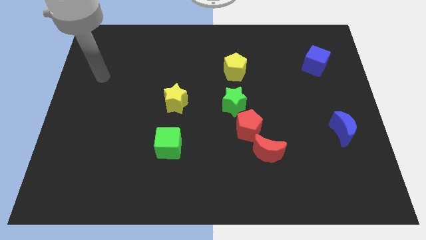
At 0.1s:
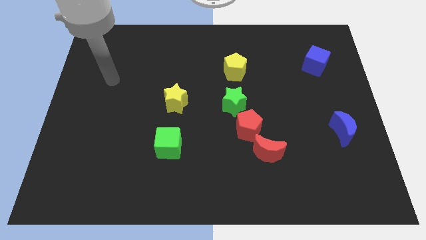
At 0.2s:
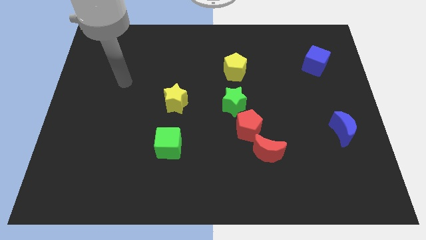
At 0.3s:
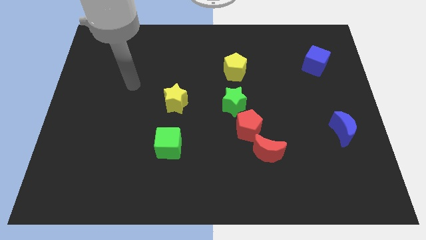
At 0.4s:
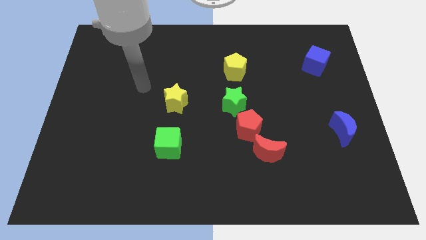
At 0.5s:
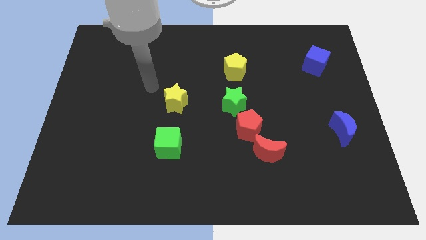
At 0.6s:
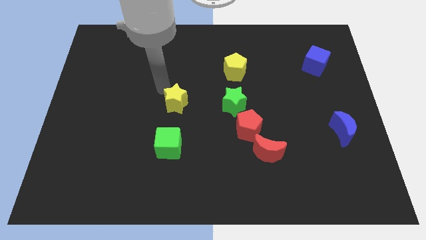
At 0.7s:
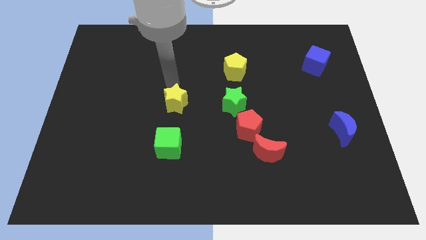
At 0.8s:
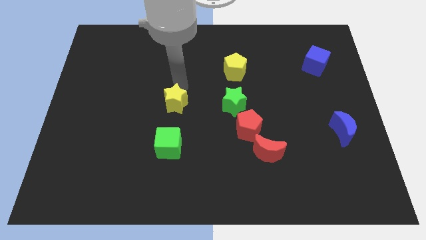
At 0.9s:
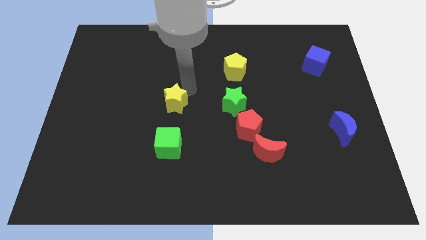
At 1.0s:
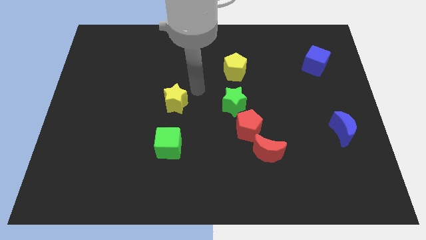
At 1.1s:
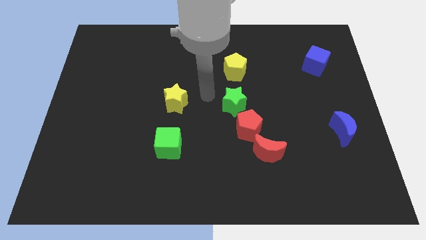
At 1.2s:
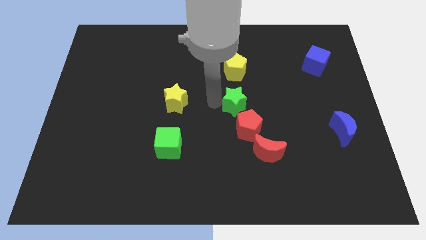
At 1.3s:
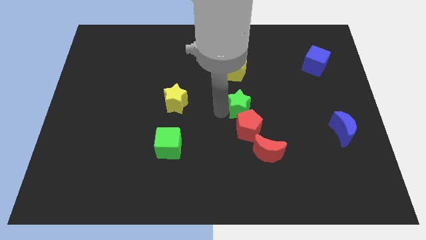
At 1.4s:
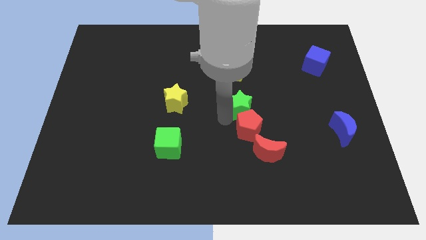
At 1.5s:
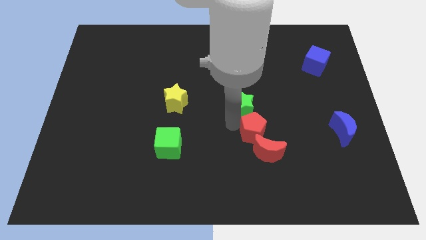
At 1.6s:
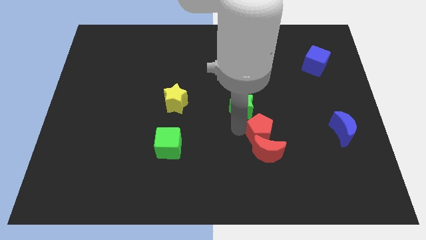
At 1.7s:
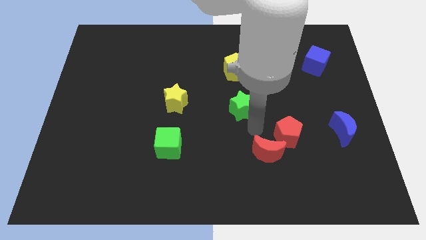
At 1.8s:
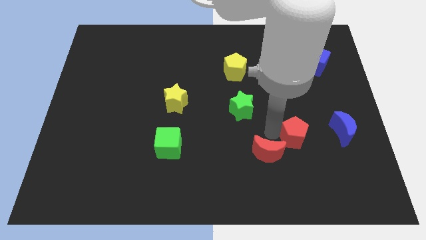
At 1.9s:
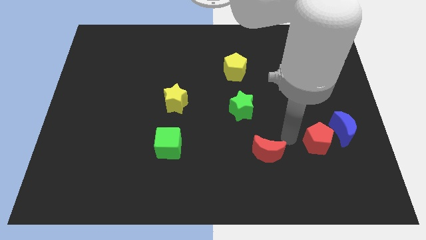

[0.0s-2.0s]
separate the red moon from the red pentagon

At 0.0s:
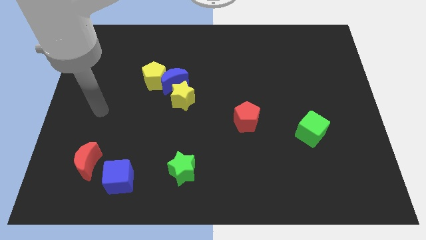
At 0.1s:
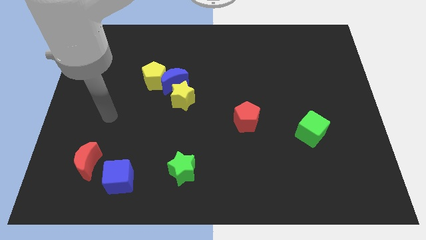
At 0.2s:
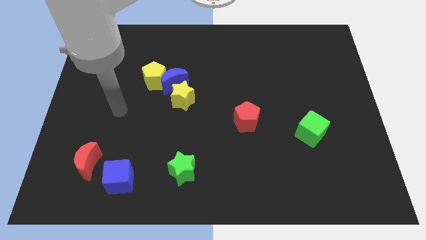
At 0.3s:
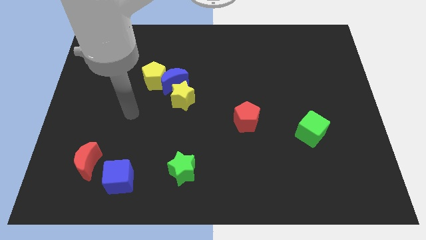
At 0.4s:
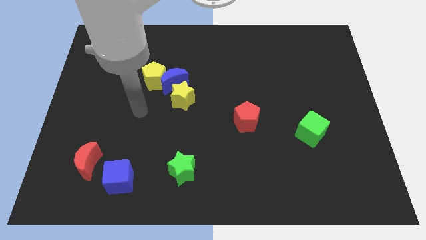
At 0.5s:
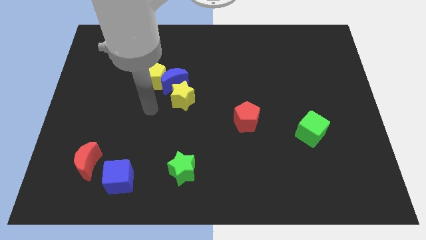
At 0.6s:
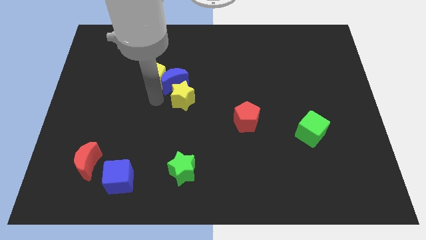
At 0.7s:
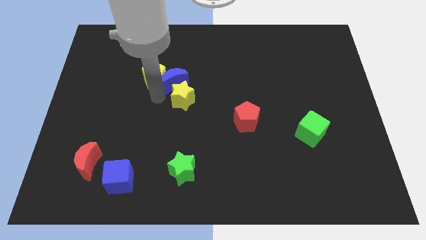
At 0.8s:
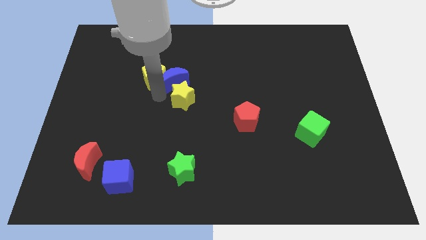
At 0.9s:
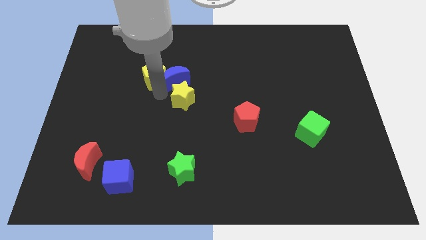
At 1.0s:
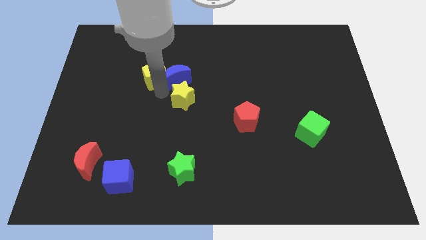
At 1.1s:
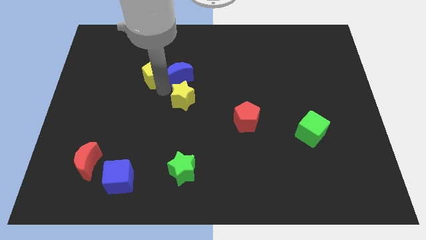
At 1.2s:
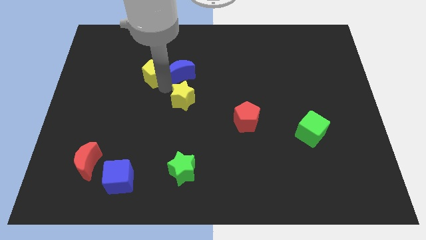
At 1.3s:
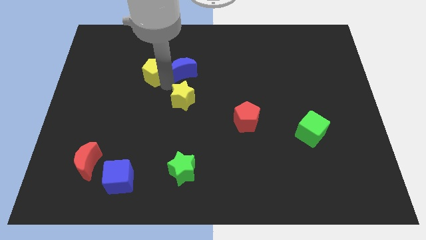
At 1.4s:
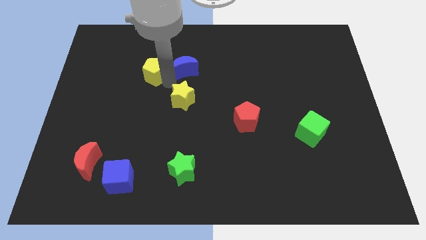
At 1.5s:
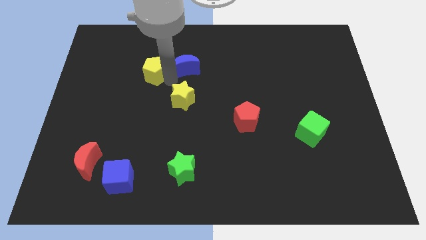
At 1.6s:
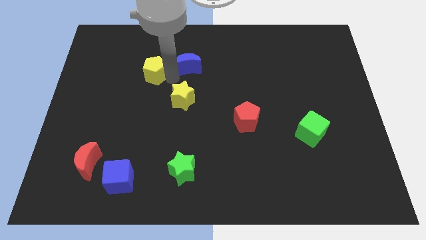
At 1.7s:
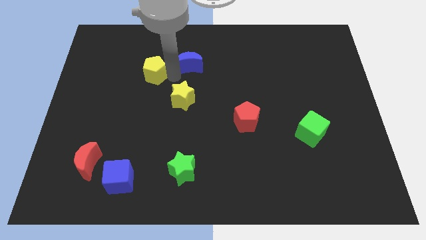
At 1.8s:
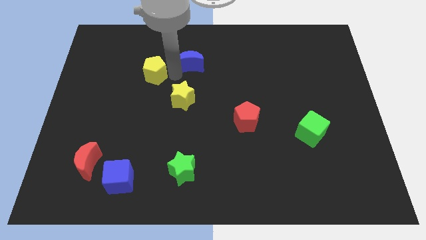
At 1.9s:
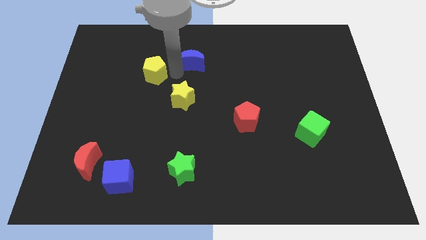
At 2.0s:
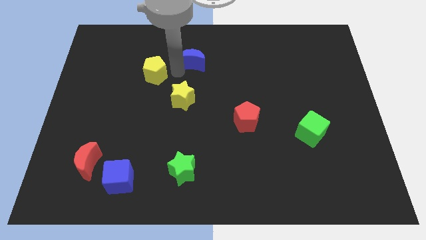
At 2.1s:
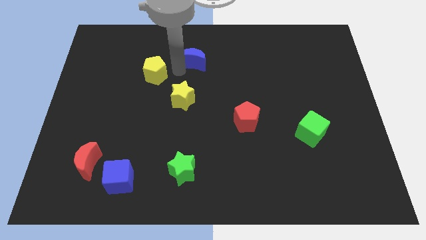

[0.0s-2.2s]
pull the blue moon apart from the yellow pentagon and yellow star

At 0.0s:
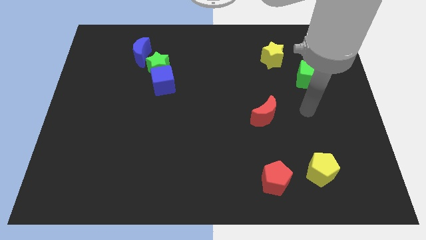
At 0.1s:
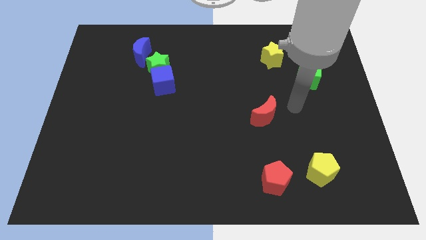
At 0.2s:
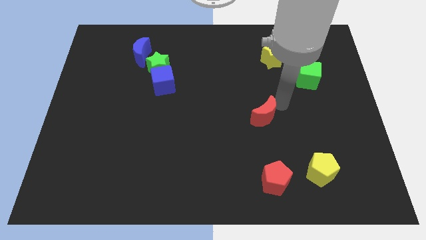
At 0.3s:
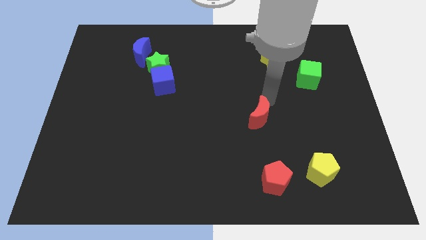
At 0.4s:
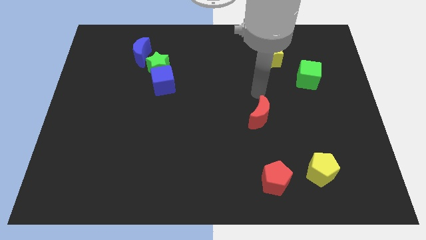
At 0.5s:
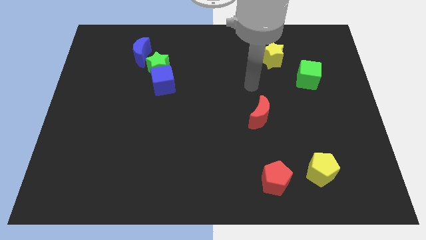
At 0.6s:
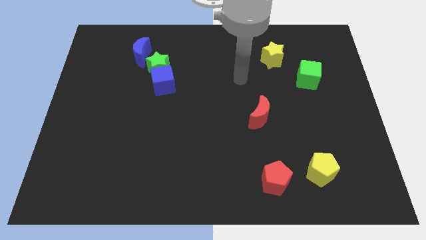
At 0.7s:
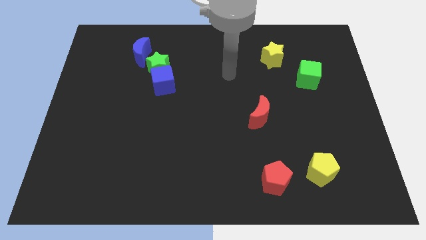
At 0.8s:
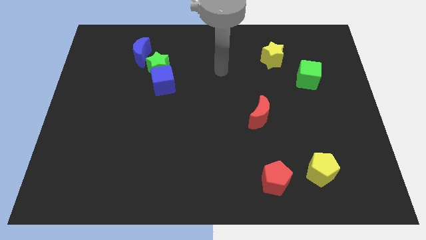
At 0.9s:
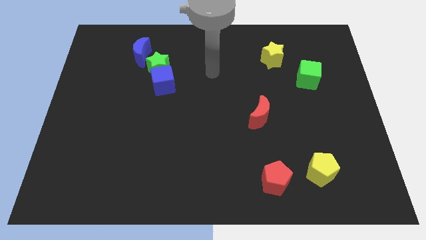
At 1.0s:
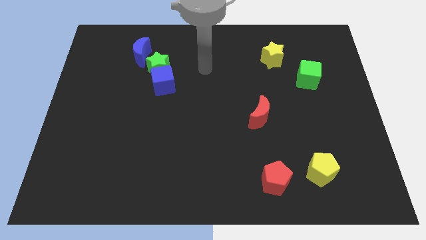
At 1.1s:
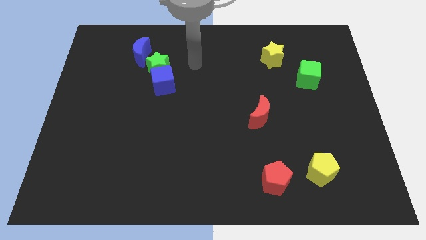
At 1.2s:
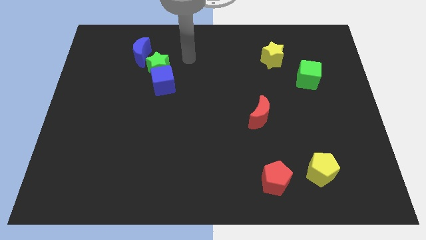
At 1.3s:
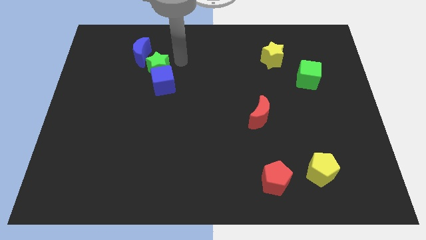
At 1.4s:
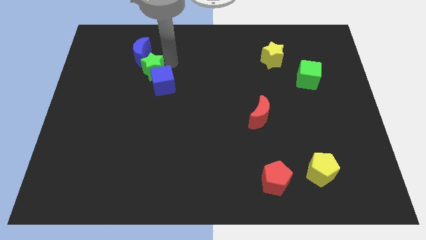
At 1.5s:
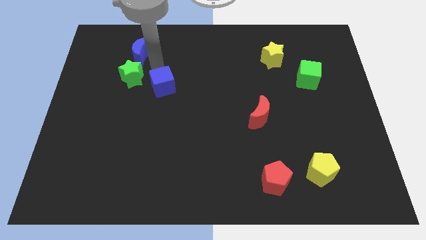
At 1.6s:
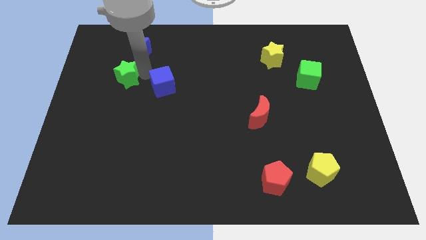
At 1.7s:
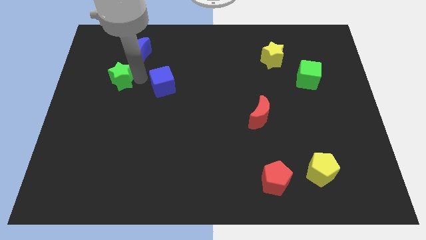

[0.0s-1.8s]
move the blue cube away from the green star

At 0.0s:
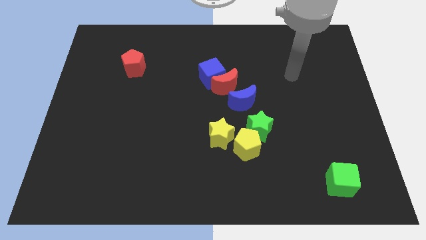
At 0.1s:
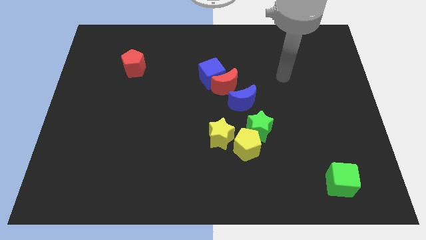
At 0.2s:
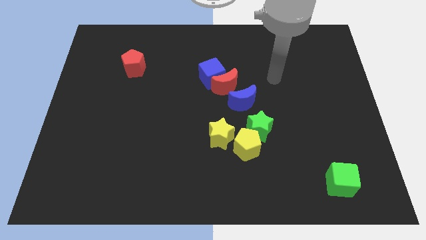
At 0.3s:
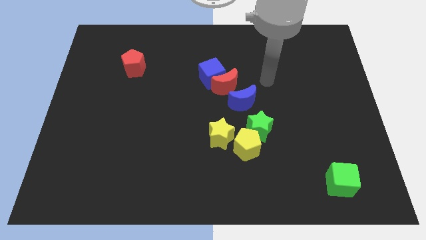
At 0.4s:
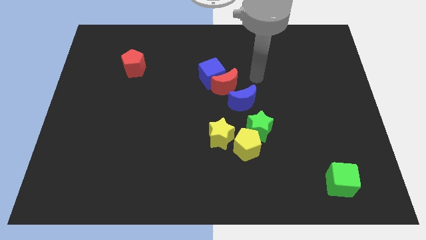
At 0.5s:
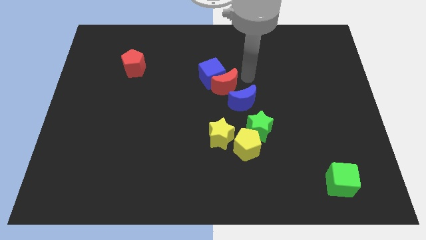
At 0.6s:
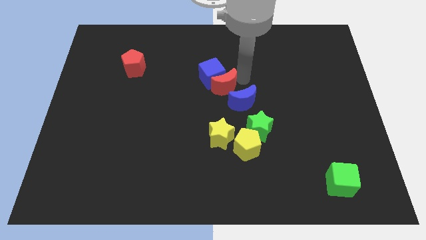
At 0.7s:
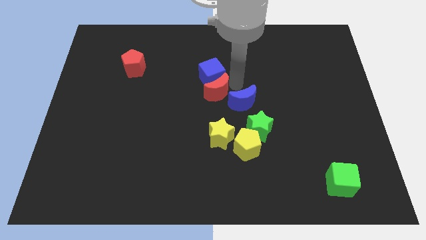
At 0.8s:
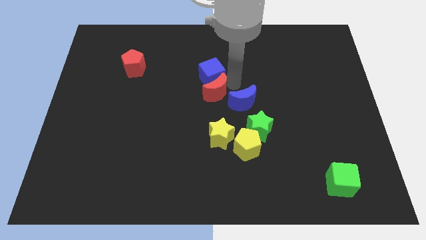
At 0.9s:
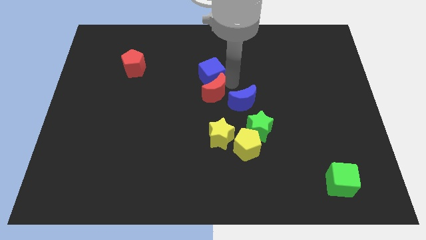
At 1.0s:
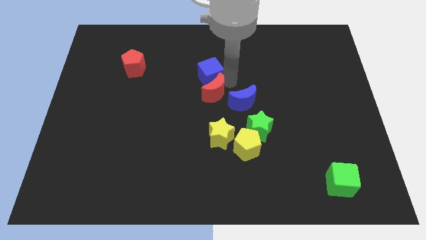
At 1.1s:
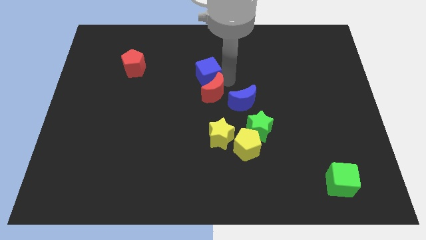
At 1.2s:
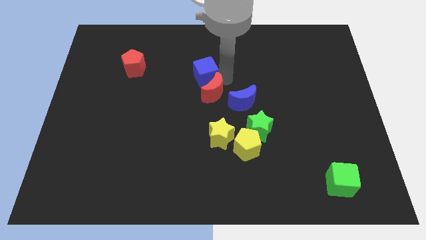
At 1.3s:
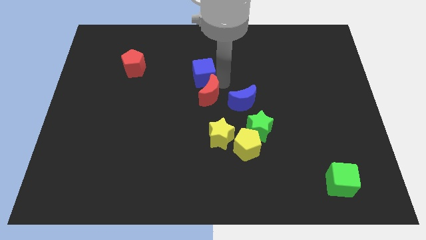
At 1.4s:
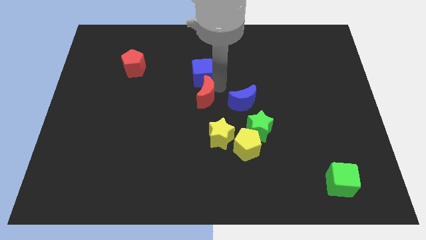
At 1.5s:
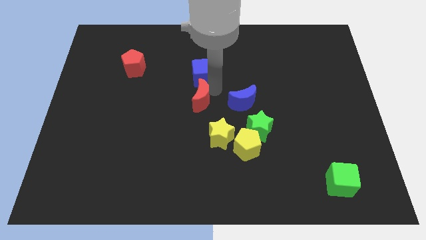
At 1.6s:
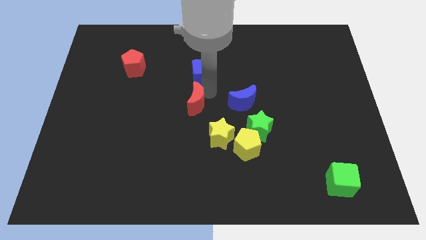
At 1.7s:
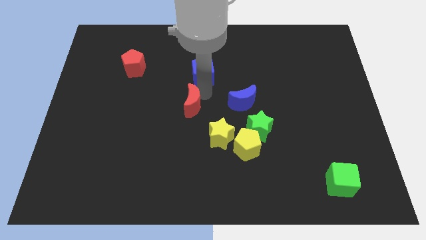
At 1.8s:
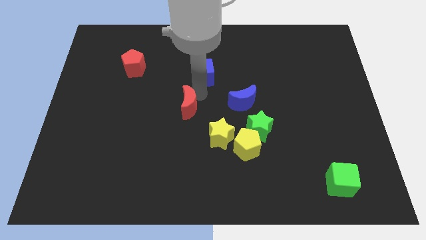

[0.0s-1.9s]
pull the blue cube apart from the red moon

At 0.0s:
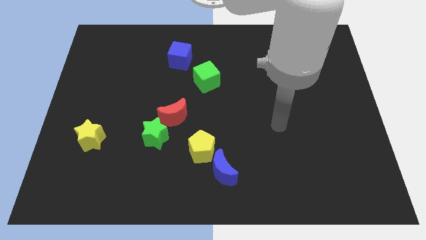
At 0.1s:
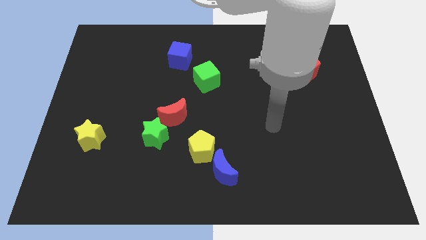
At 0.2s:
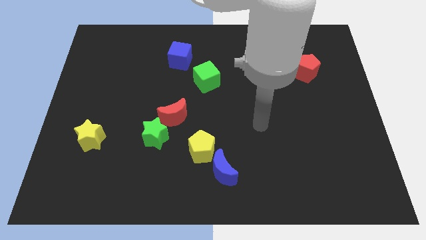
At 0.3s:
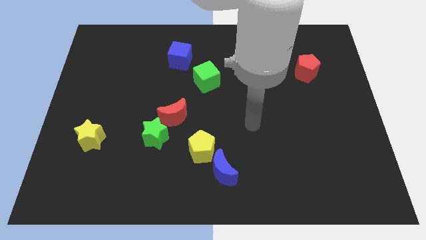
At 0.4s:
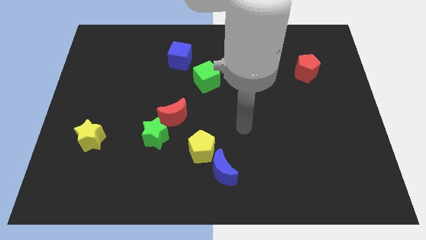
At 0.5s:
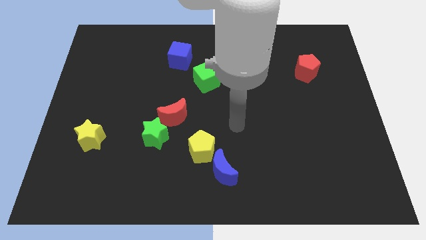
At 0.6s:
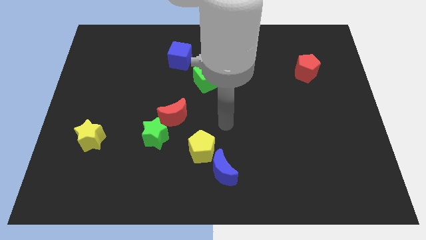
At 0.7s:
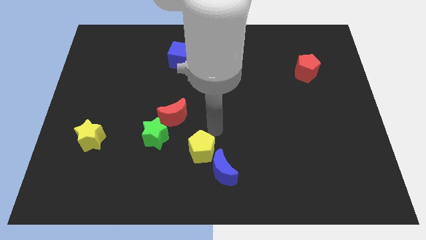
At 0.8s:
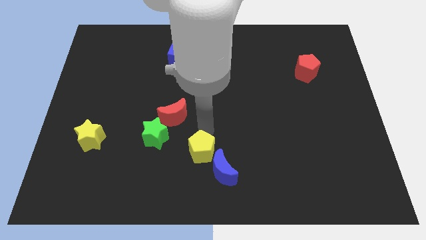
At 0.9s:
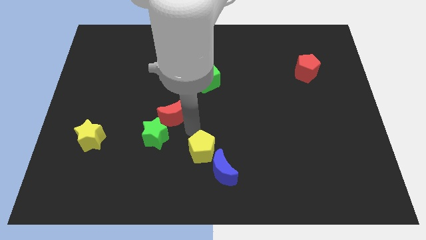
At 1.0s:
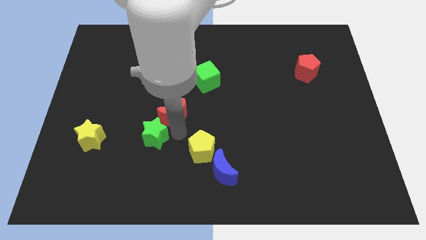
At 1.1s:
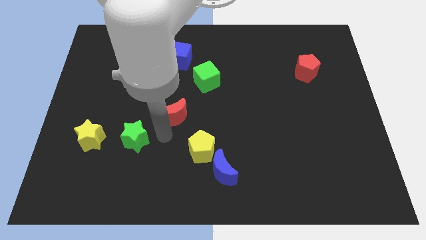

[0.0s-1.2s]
separate the red moon from the green star

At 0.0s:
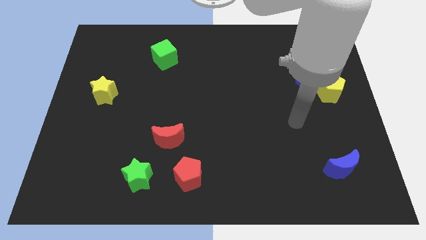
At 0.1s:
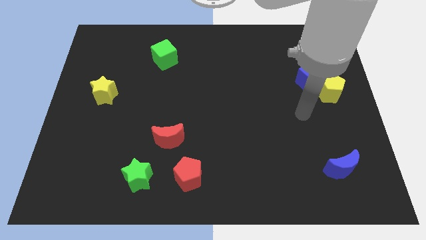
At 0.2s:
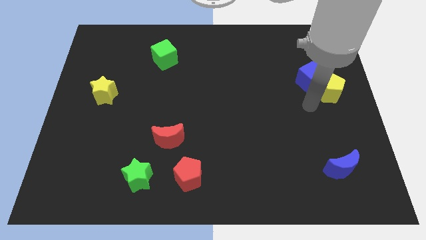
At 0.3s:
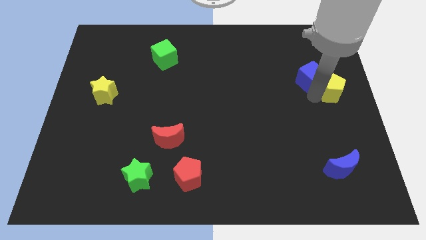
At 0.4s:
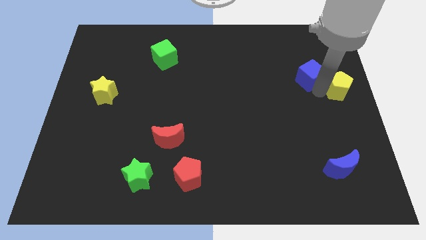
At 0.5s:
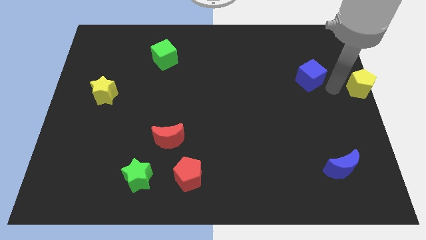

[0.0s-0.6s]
pull the blue cube apart from the yellow pentagon
